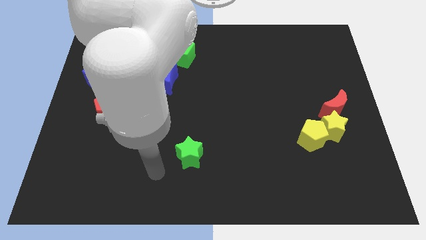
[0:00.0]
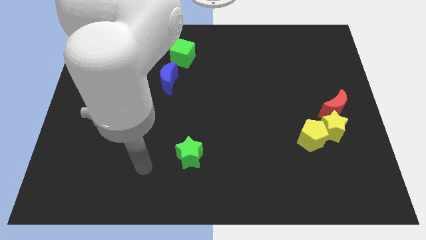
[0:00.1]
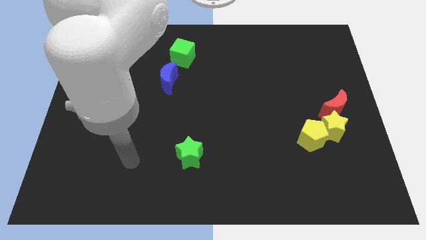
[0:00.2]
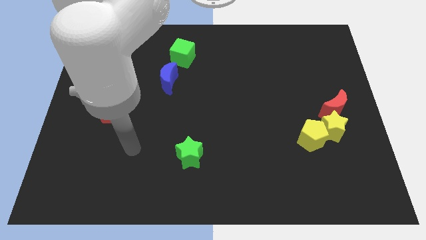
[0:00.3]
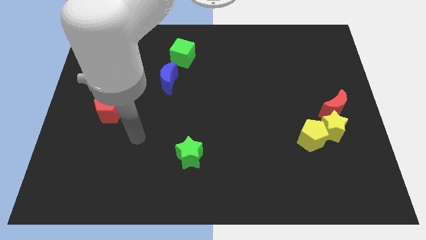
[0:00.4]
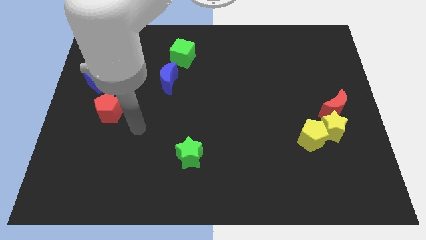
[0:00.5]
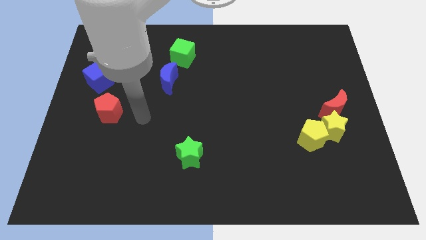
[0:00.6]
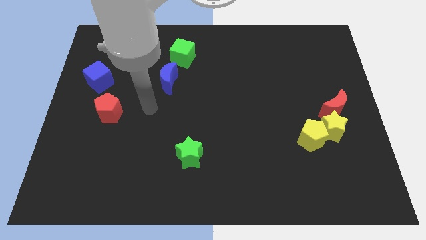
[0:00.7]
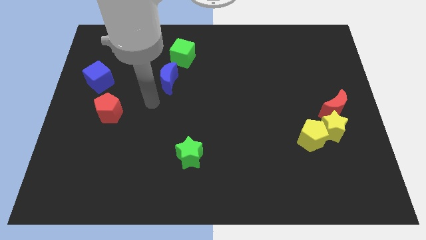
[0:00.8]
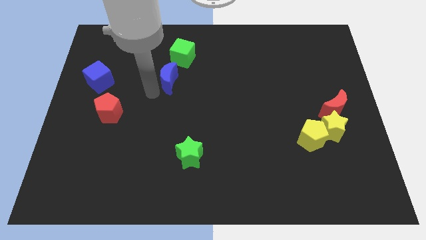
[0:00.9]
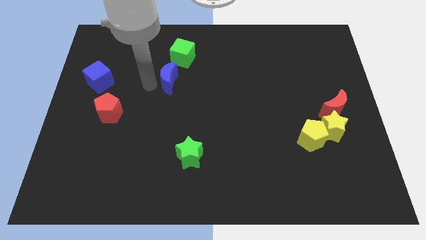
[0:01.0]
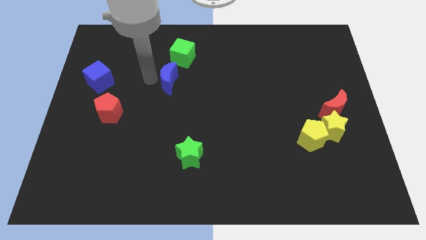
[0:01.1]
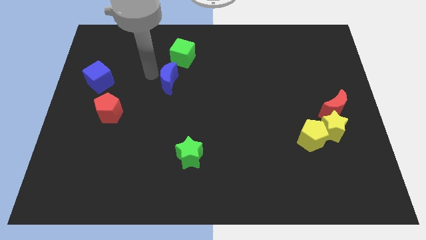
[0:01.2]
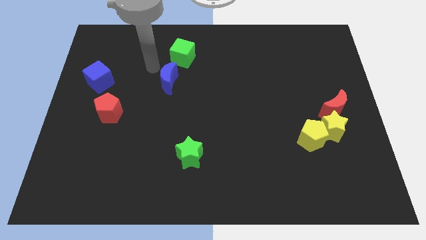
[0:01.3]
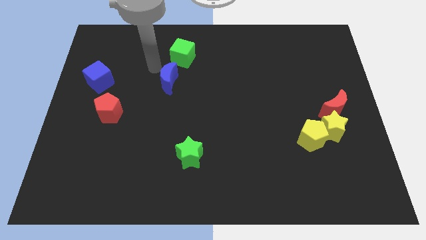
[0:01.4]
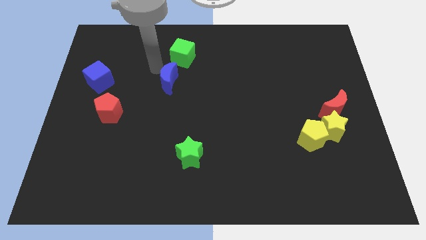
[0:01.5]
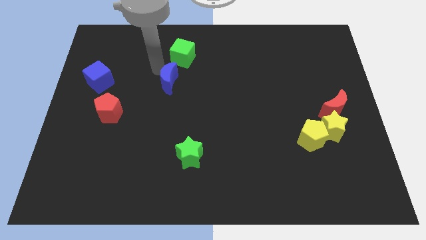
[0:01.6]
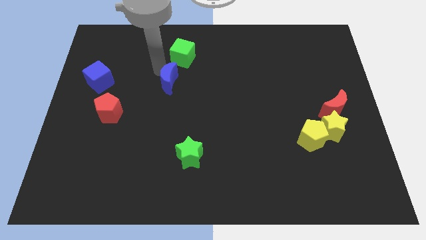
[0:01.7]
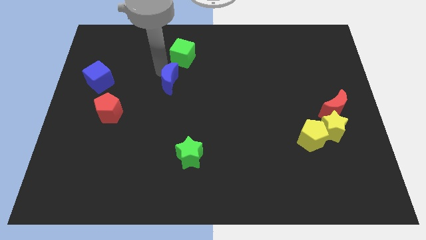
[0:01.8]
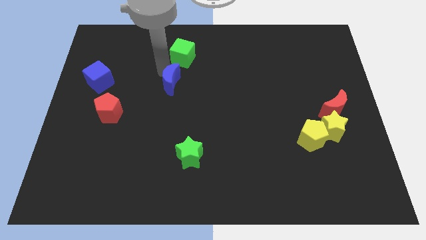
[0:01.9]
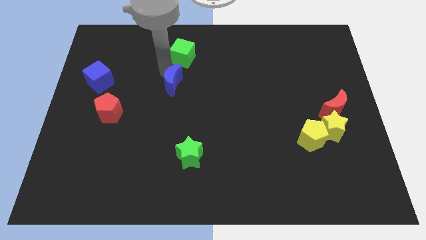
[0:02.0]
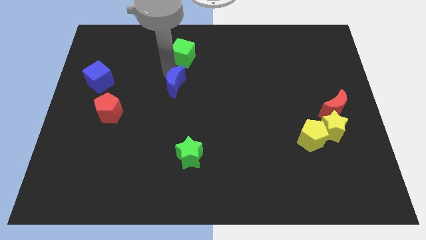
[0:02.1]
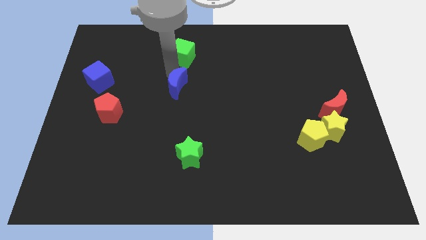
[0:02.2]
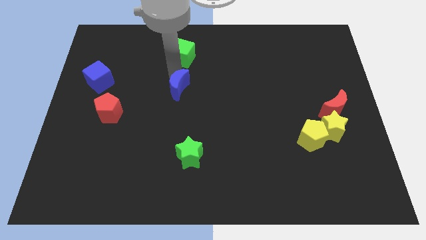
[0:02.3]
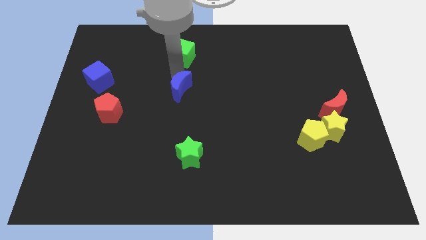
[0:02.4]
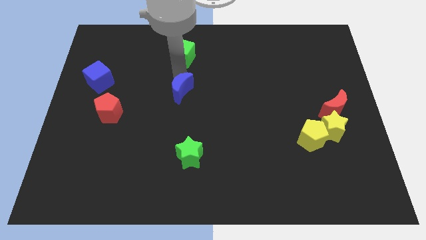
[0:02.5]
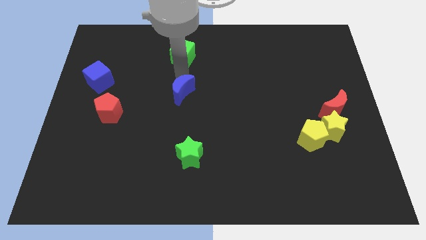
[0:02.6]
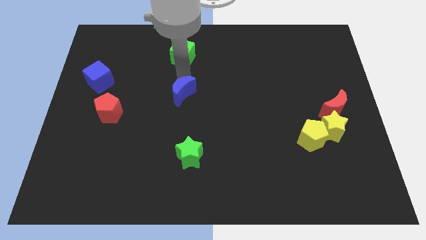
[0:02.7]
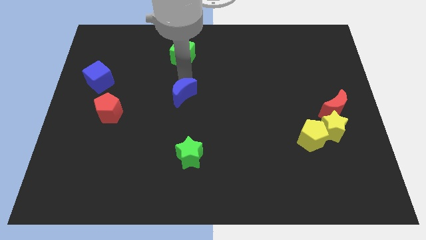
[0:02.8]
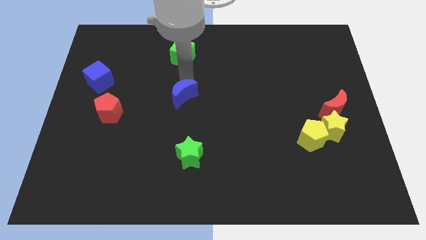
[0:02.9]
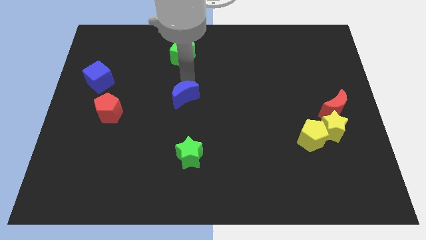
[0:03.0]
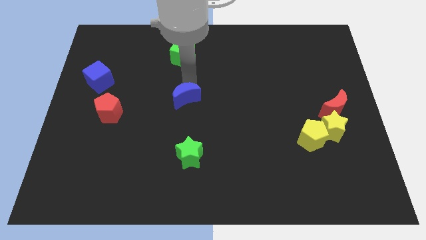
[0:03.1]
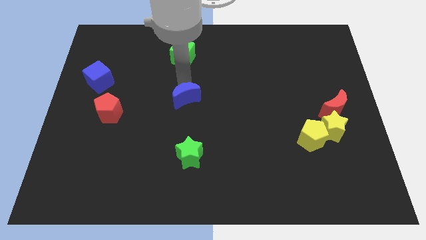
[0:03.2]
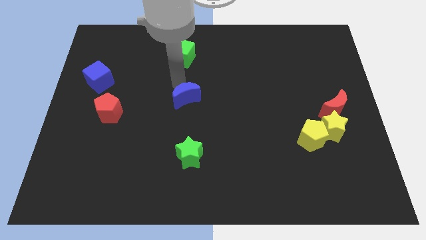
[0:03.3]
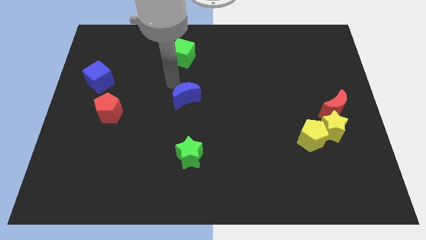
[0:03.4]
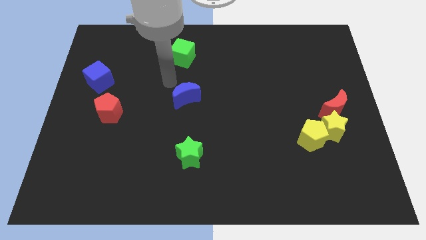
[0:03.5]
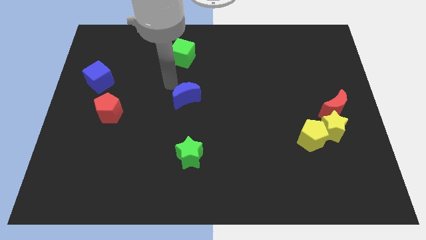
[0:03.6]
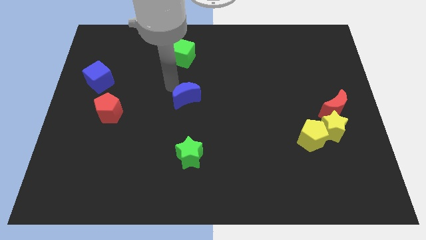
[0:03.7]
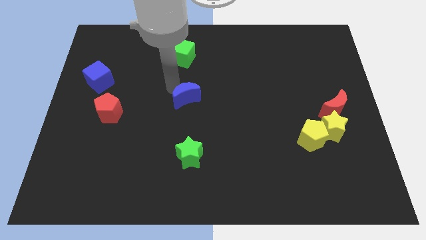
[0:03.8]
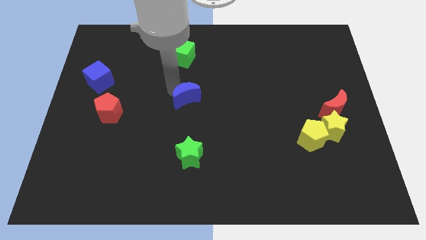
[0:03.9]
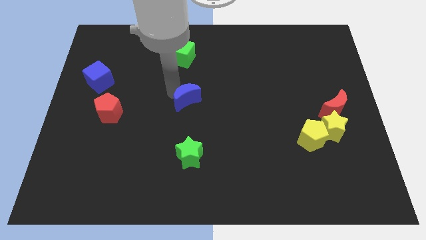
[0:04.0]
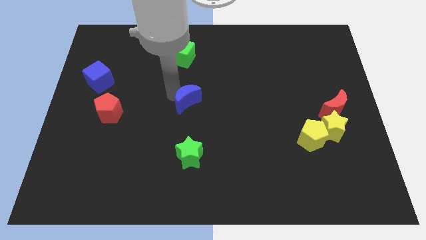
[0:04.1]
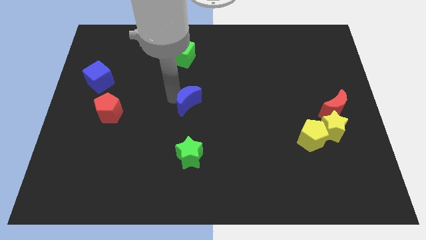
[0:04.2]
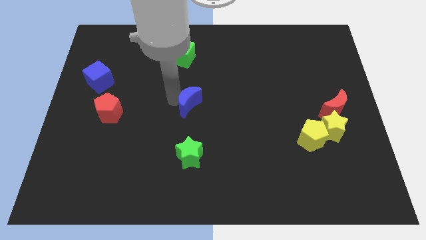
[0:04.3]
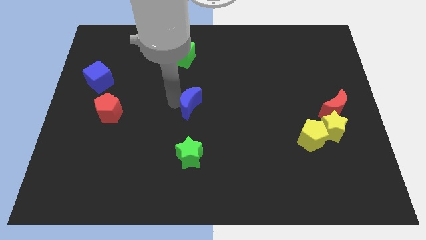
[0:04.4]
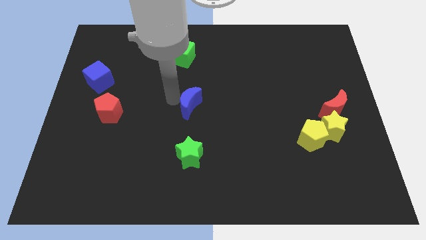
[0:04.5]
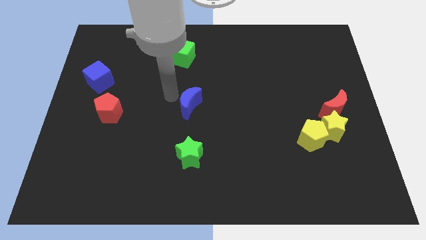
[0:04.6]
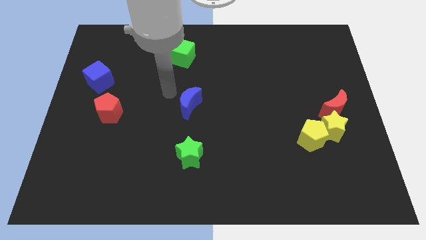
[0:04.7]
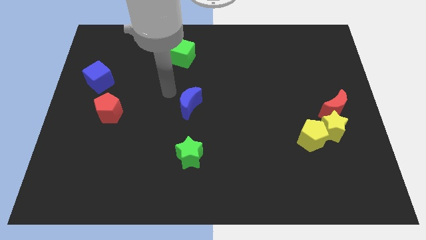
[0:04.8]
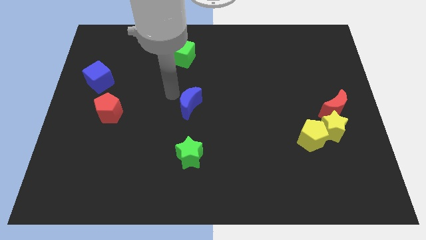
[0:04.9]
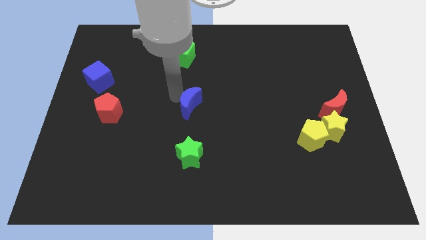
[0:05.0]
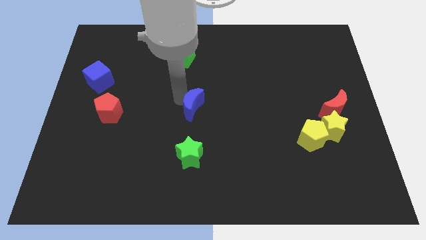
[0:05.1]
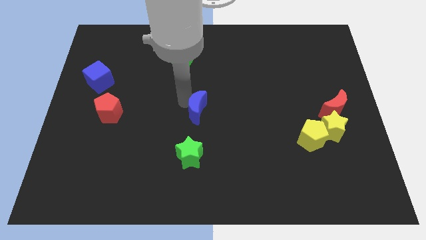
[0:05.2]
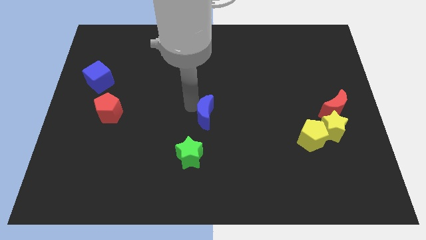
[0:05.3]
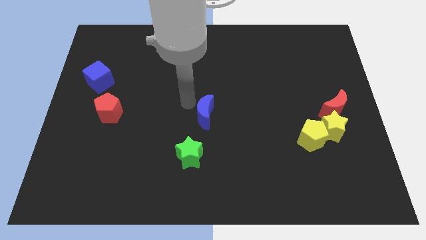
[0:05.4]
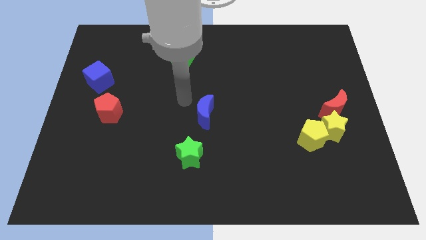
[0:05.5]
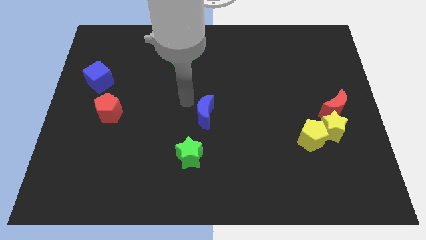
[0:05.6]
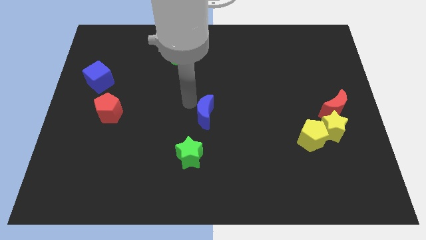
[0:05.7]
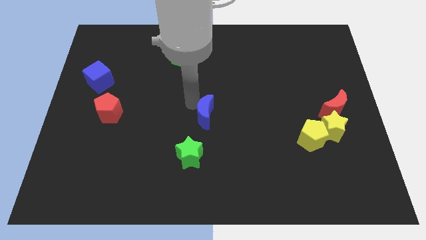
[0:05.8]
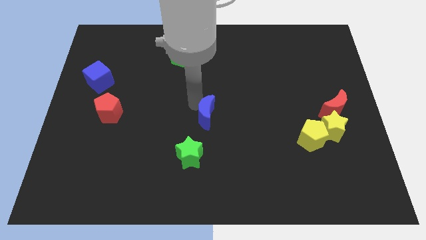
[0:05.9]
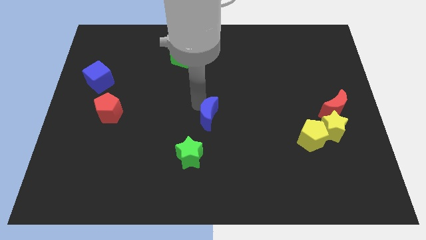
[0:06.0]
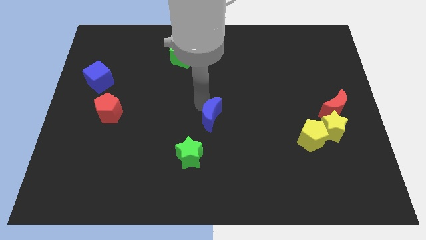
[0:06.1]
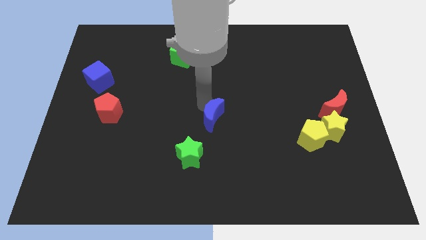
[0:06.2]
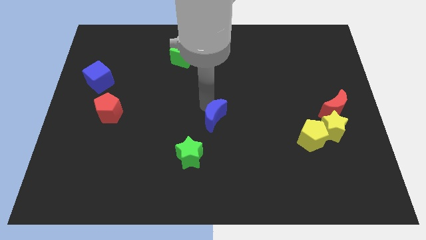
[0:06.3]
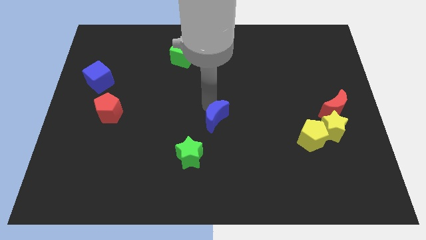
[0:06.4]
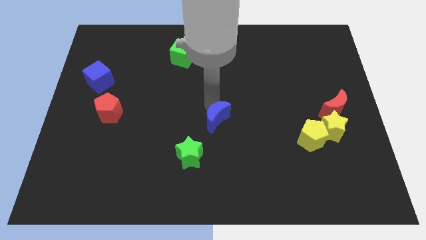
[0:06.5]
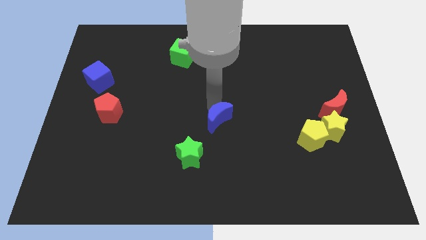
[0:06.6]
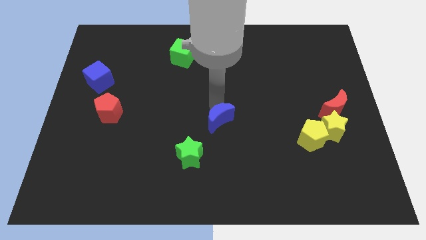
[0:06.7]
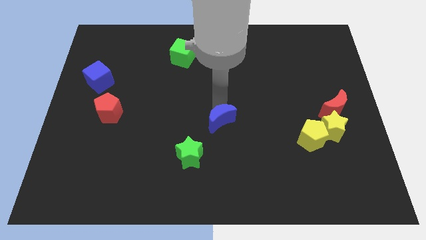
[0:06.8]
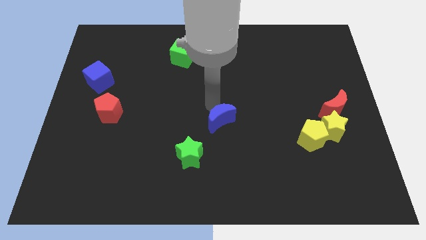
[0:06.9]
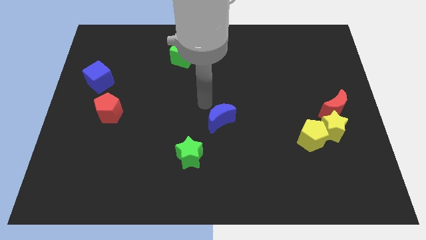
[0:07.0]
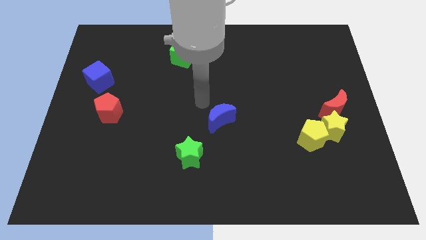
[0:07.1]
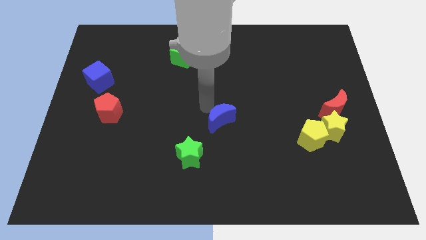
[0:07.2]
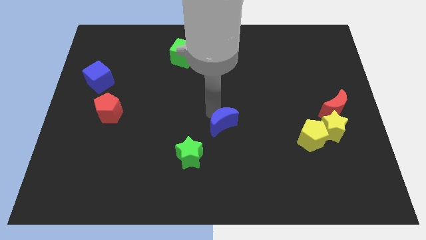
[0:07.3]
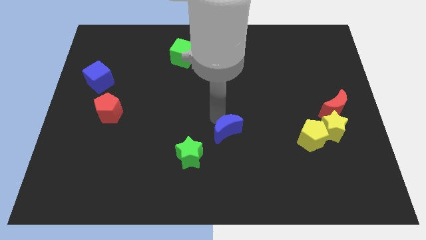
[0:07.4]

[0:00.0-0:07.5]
slide the blue moon down and to the right

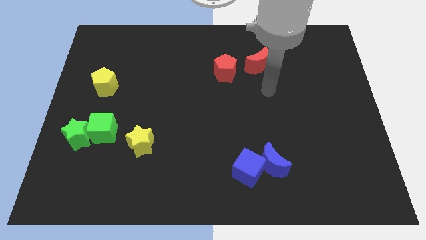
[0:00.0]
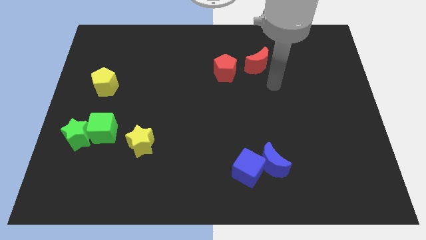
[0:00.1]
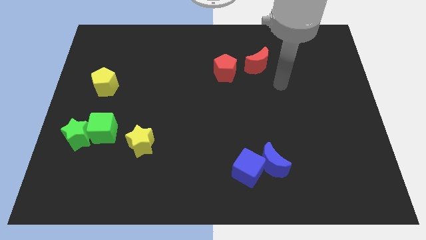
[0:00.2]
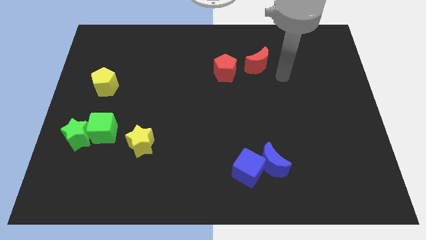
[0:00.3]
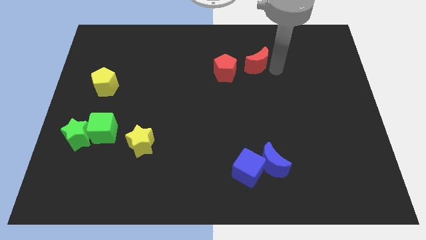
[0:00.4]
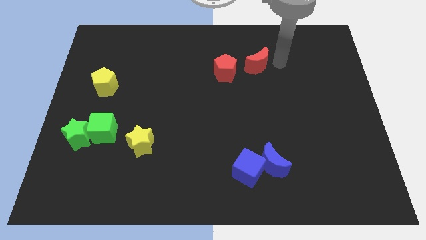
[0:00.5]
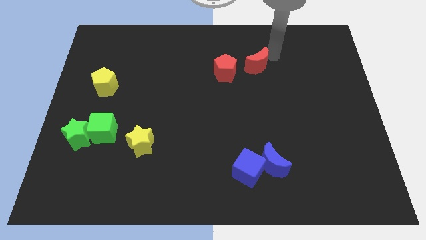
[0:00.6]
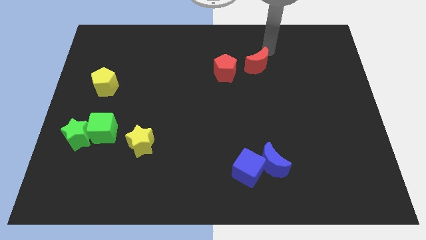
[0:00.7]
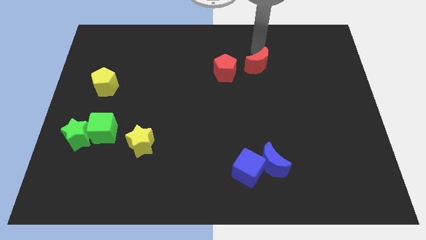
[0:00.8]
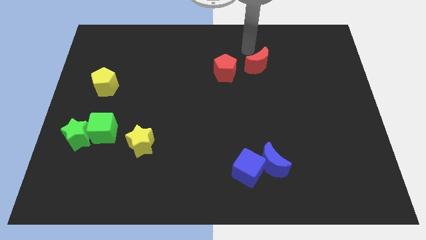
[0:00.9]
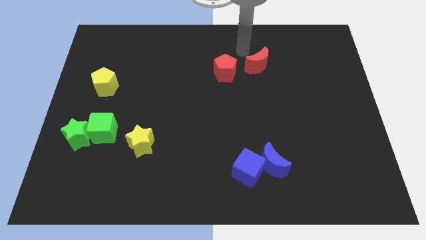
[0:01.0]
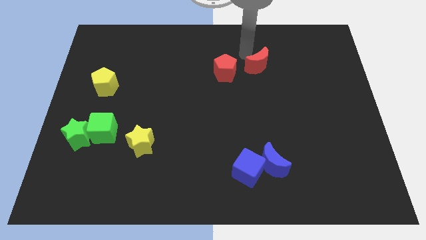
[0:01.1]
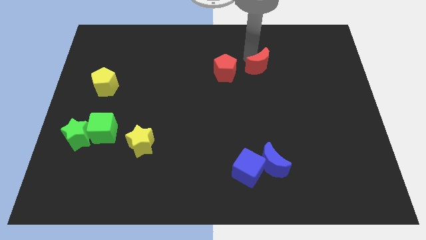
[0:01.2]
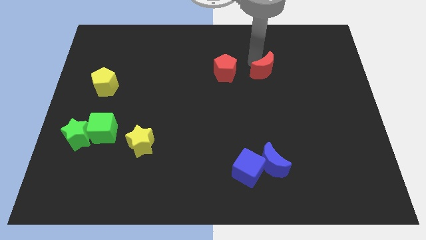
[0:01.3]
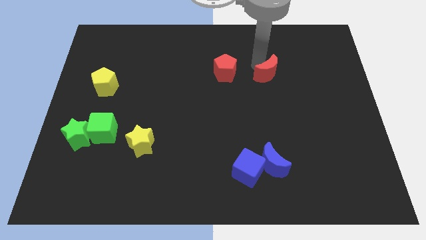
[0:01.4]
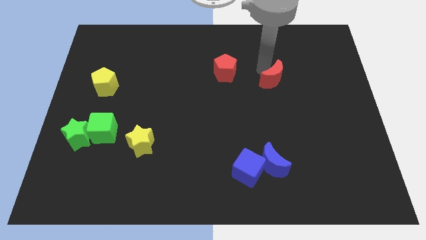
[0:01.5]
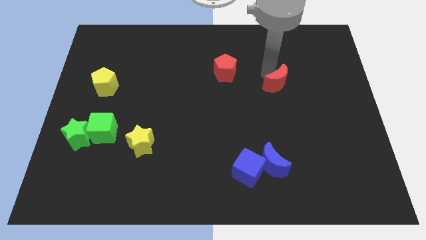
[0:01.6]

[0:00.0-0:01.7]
move the red moon a little bit diagonally downwards and to the right
